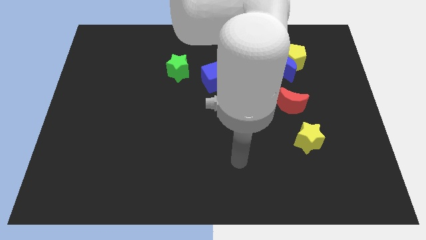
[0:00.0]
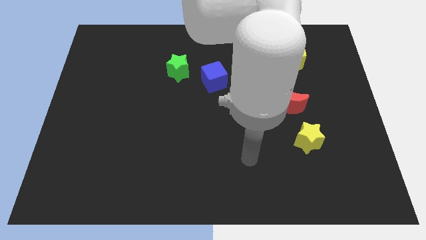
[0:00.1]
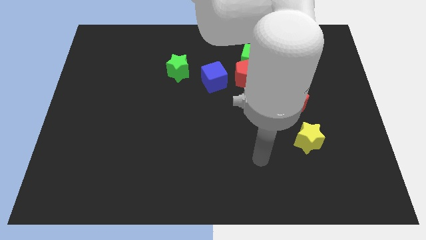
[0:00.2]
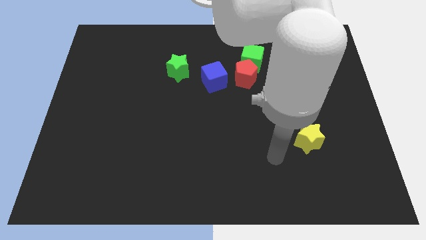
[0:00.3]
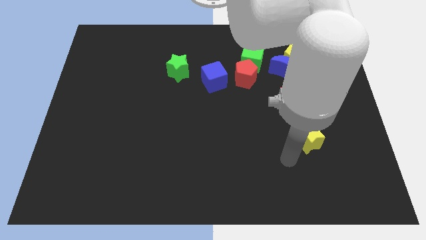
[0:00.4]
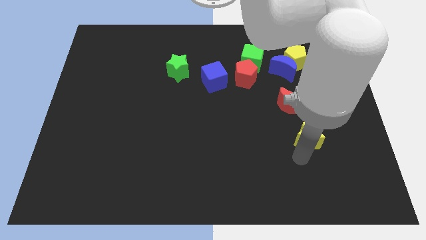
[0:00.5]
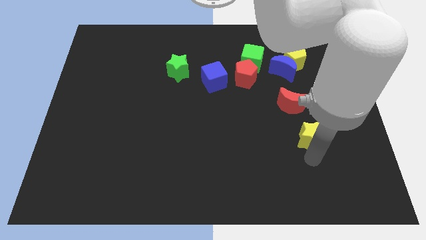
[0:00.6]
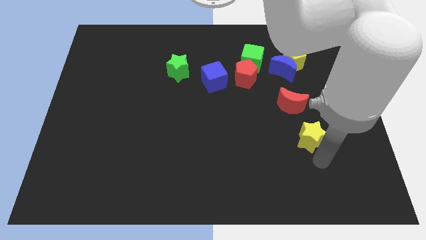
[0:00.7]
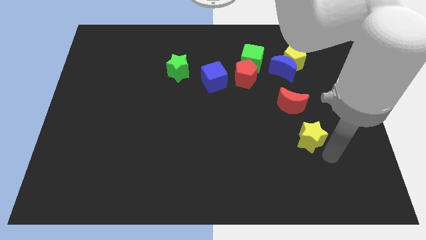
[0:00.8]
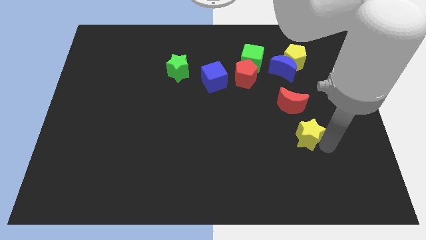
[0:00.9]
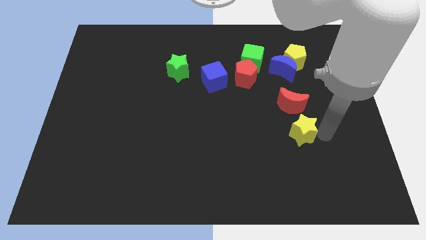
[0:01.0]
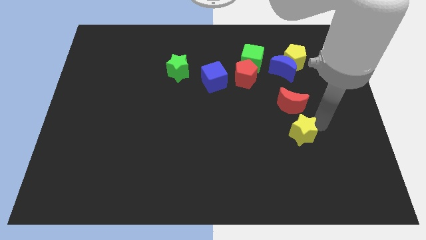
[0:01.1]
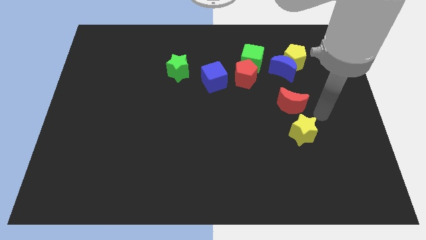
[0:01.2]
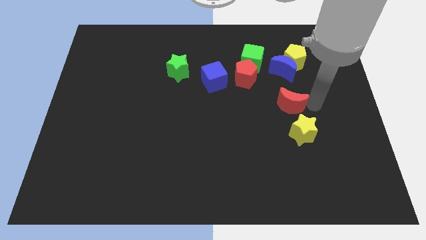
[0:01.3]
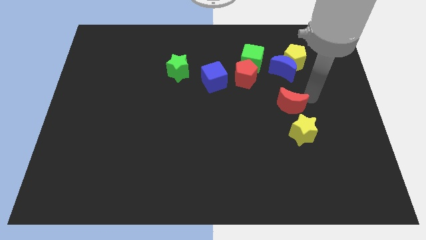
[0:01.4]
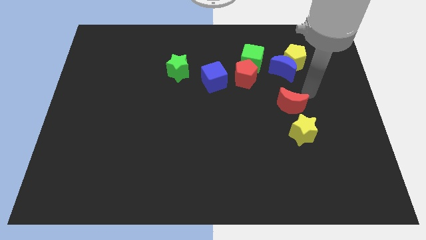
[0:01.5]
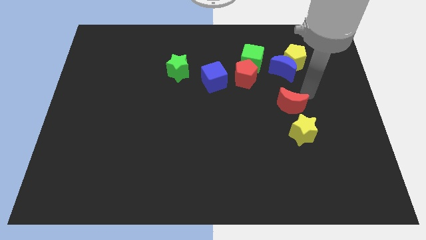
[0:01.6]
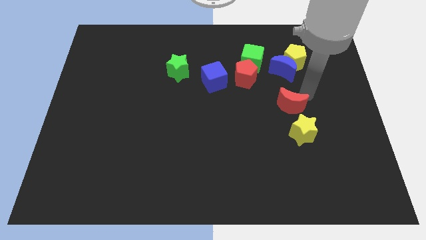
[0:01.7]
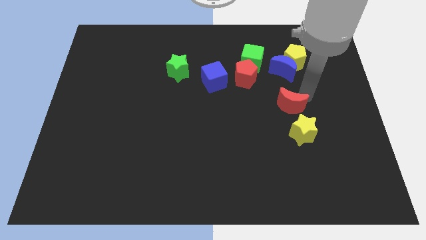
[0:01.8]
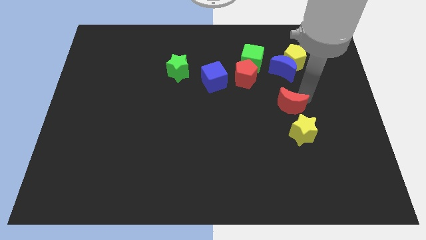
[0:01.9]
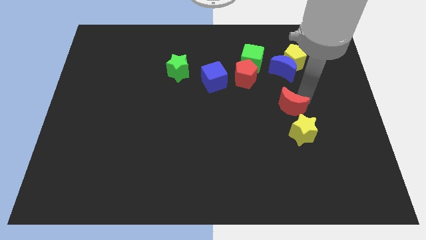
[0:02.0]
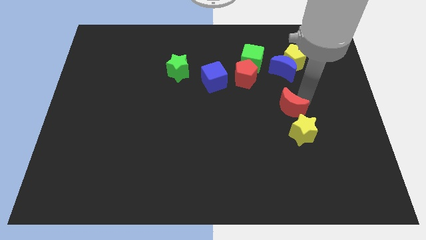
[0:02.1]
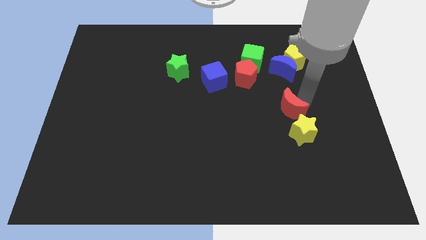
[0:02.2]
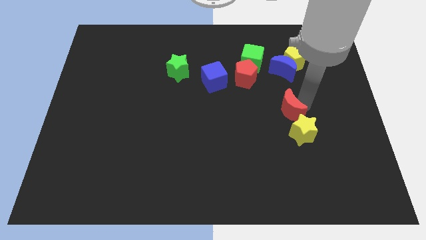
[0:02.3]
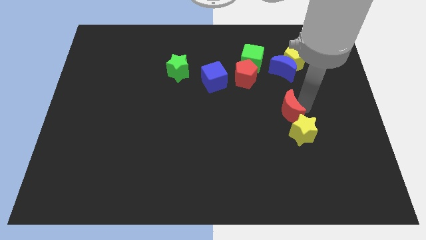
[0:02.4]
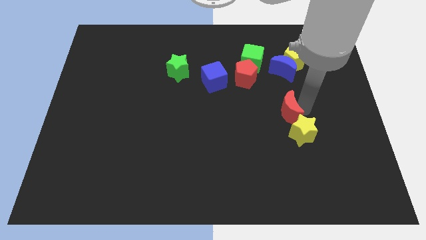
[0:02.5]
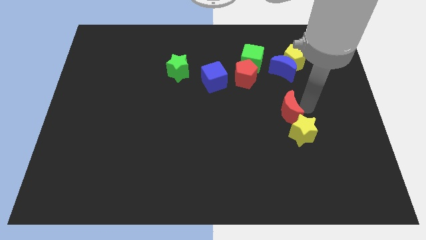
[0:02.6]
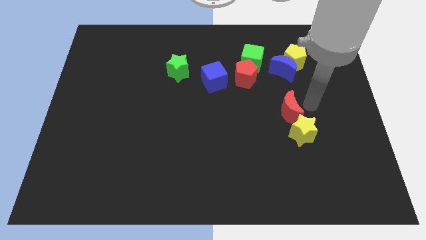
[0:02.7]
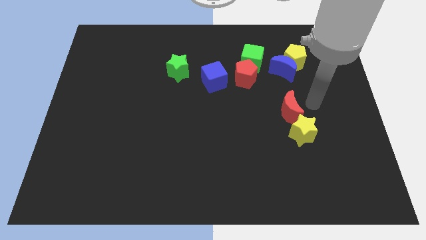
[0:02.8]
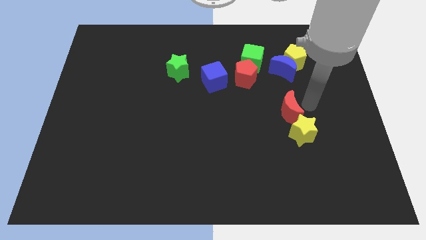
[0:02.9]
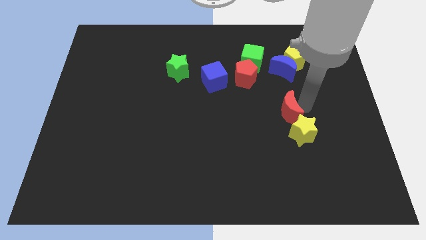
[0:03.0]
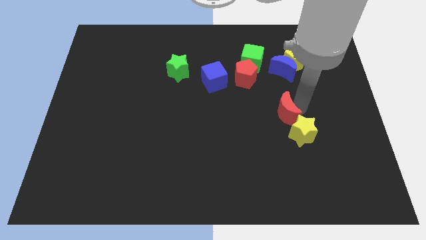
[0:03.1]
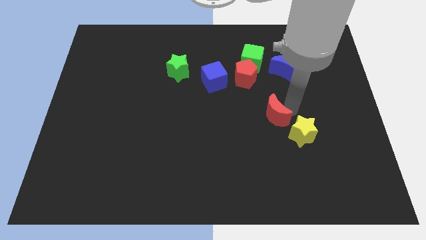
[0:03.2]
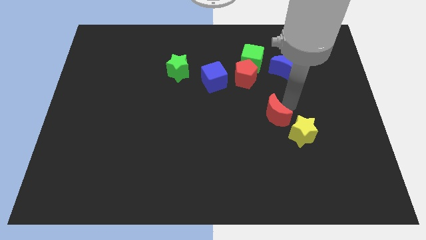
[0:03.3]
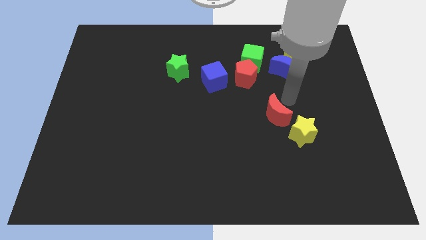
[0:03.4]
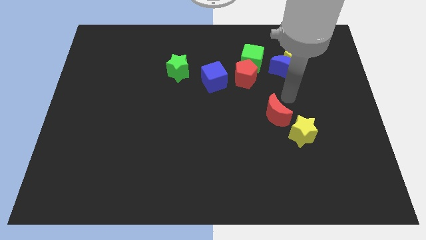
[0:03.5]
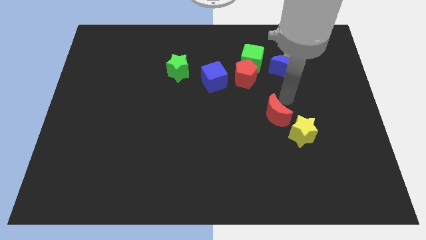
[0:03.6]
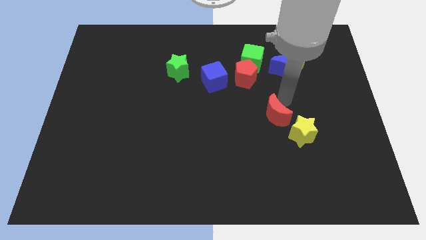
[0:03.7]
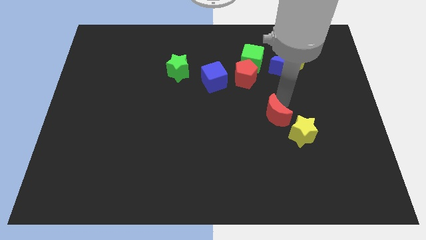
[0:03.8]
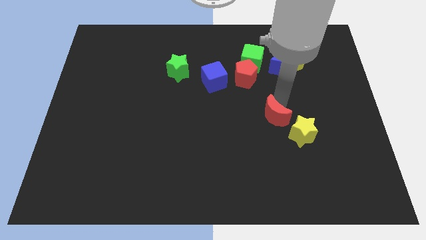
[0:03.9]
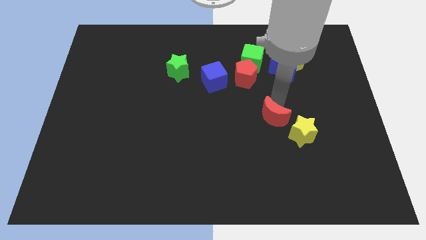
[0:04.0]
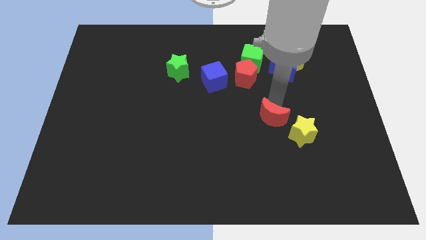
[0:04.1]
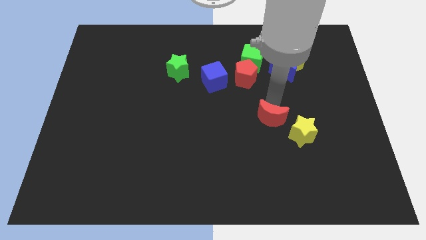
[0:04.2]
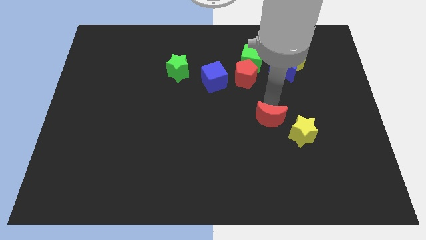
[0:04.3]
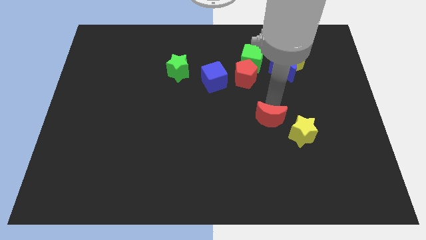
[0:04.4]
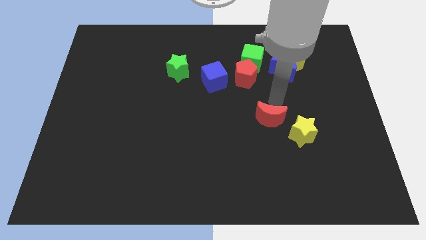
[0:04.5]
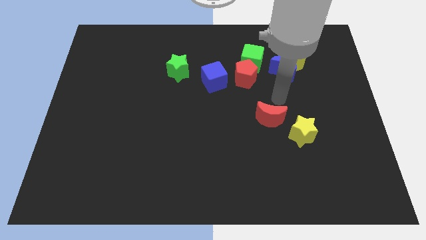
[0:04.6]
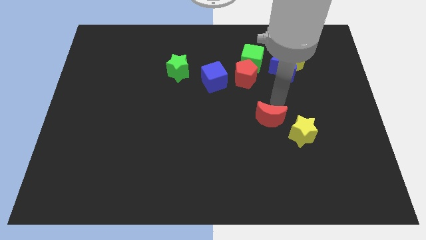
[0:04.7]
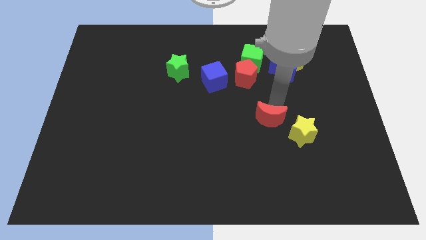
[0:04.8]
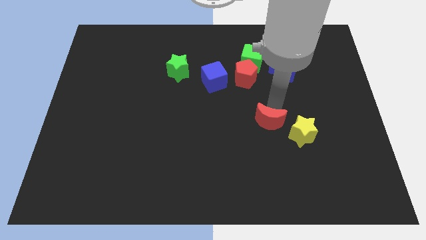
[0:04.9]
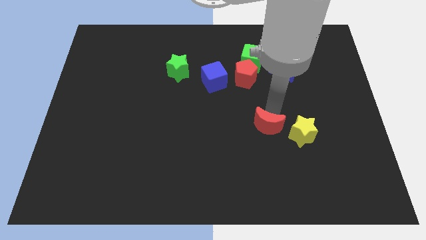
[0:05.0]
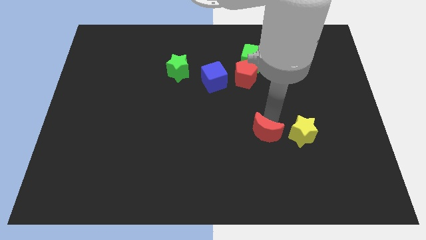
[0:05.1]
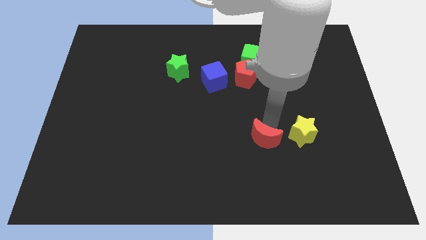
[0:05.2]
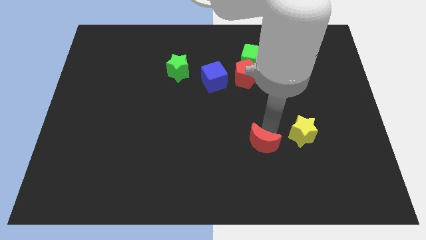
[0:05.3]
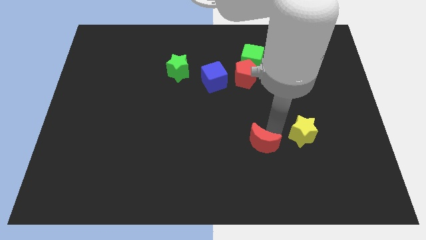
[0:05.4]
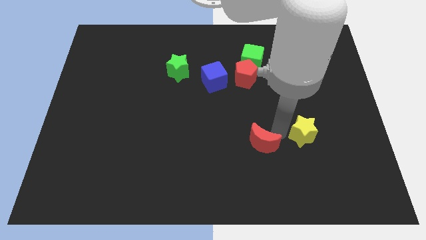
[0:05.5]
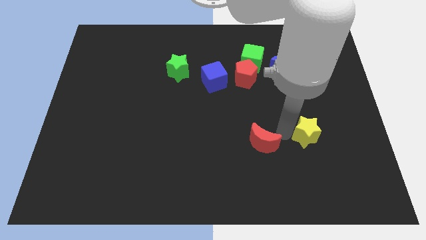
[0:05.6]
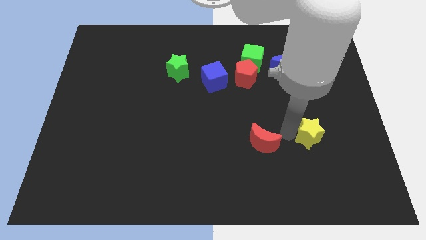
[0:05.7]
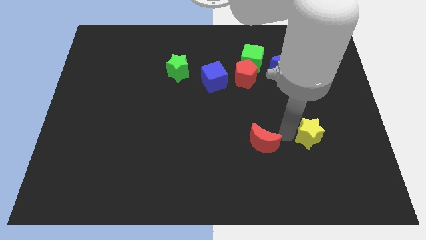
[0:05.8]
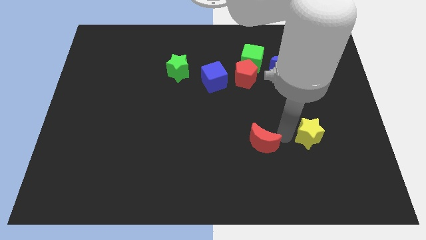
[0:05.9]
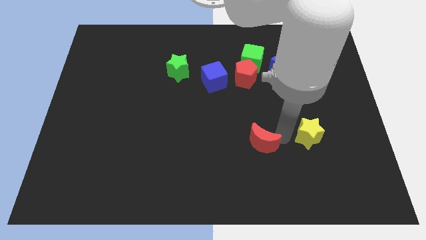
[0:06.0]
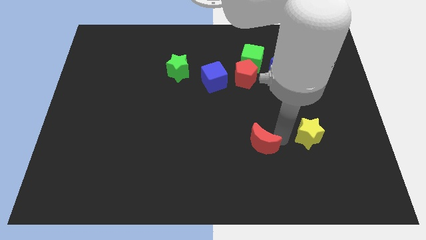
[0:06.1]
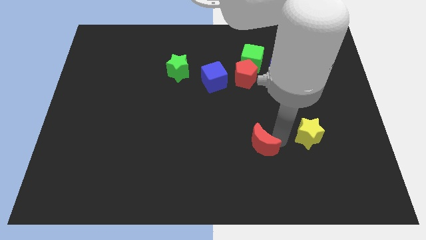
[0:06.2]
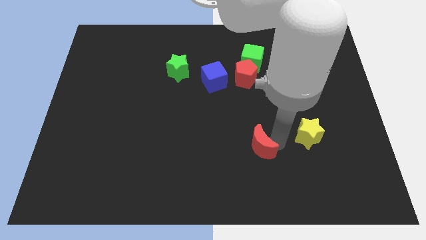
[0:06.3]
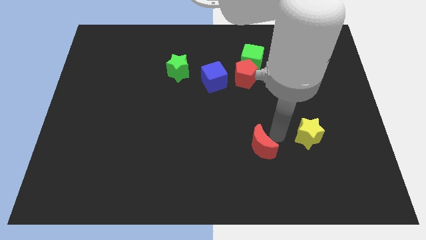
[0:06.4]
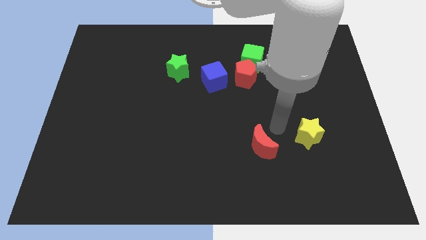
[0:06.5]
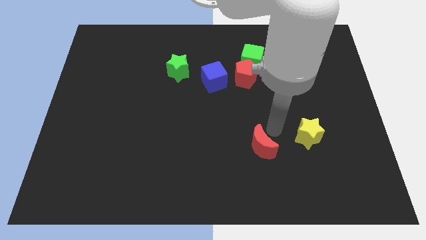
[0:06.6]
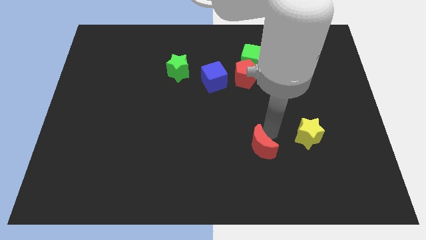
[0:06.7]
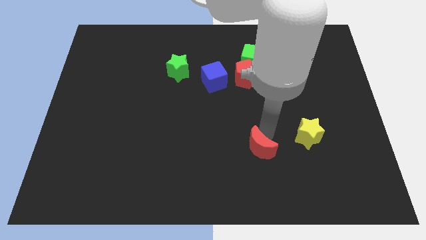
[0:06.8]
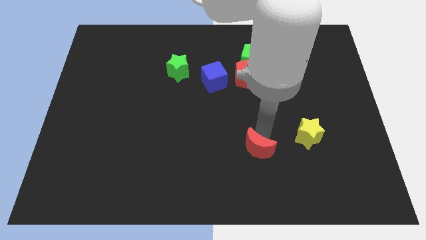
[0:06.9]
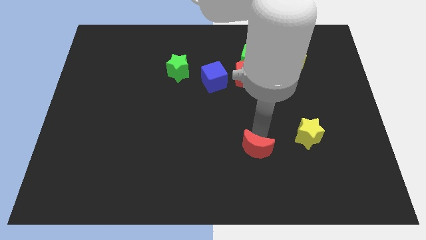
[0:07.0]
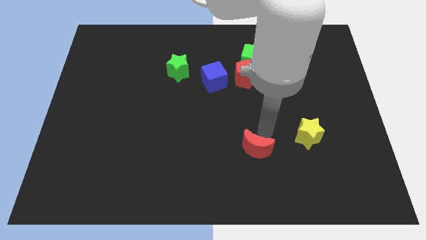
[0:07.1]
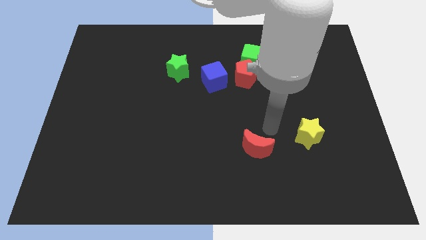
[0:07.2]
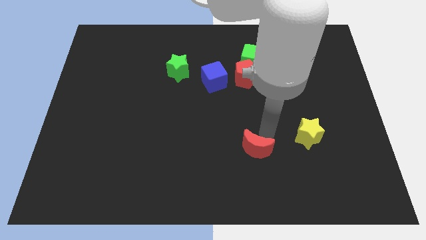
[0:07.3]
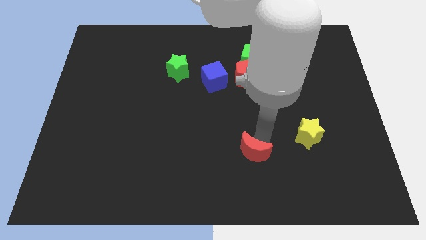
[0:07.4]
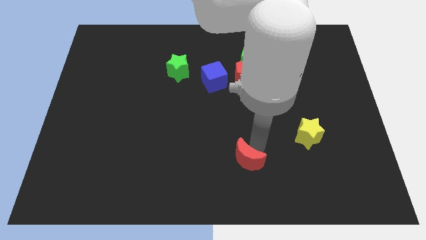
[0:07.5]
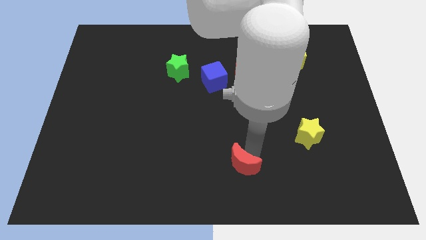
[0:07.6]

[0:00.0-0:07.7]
put the red moon to the bottom
